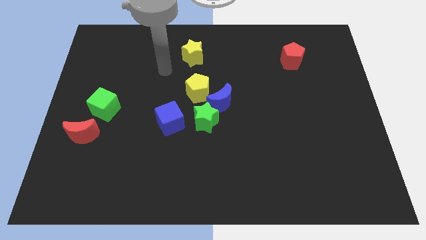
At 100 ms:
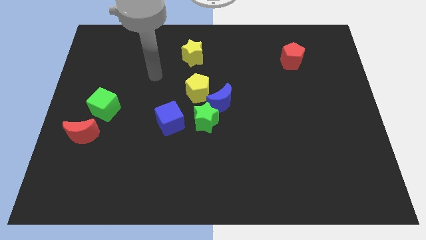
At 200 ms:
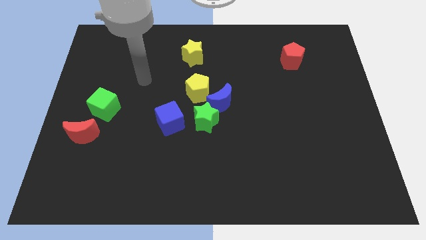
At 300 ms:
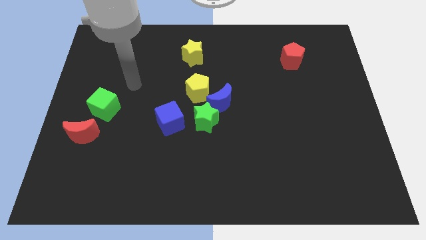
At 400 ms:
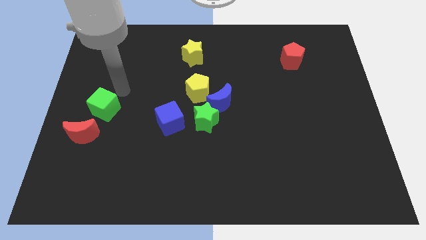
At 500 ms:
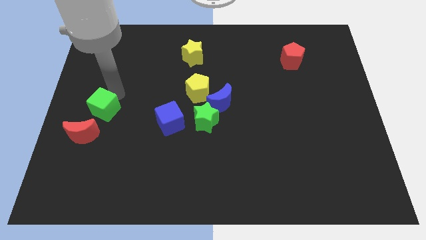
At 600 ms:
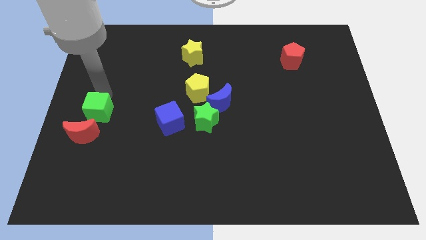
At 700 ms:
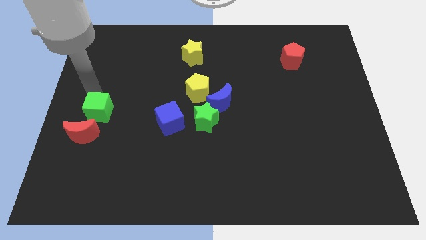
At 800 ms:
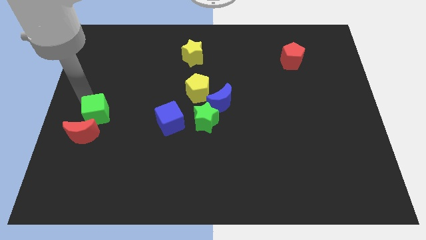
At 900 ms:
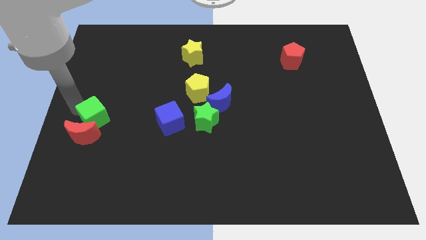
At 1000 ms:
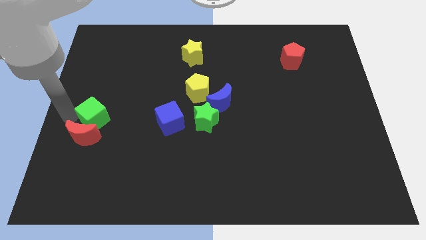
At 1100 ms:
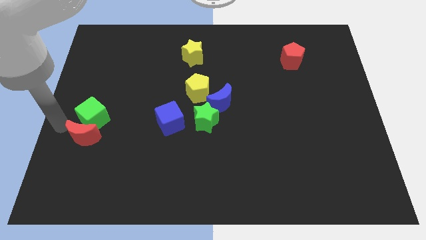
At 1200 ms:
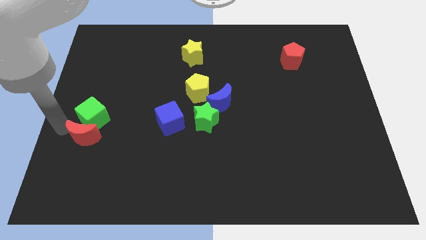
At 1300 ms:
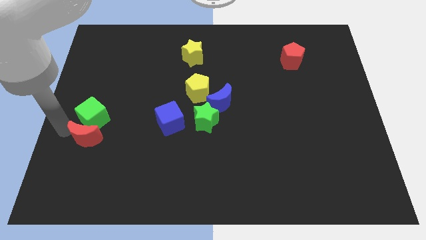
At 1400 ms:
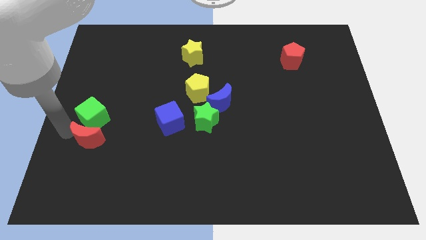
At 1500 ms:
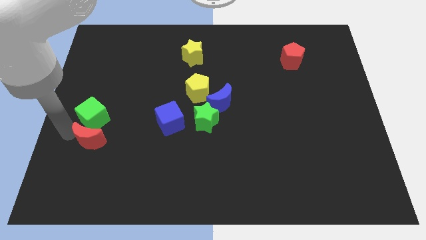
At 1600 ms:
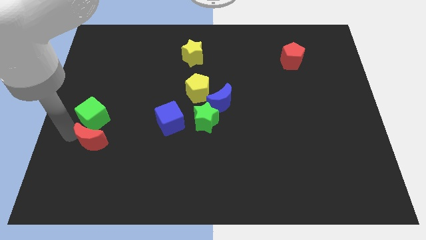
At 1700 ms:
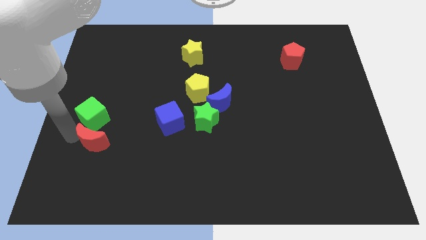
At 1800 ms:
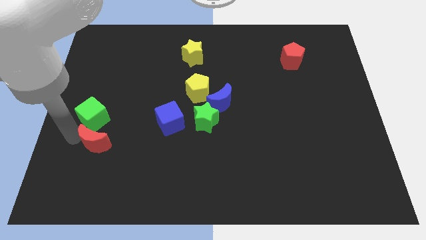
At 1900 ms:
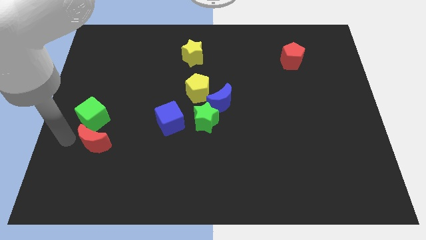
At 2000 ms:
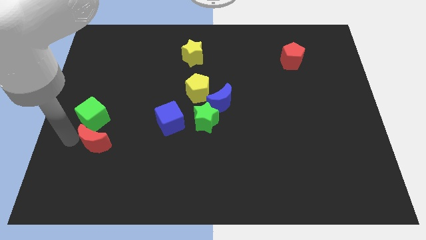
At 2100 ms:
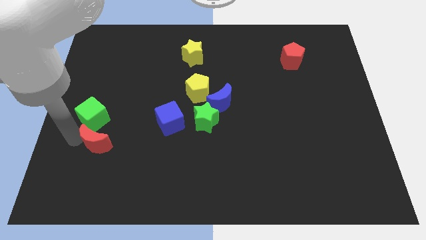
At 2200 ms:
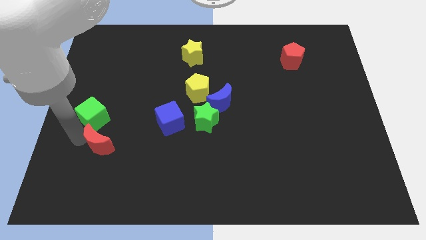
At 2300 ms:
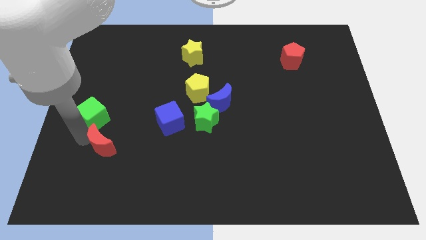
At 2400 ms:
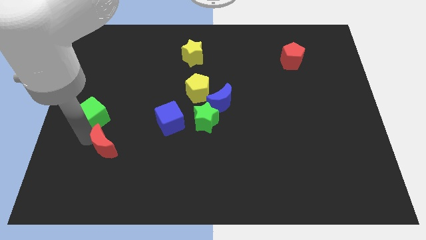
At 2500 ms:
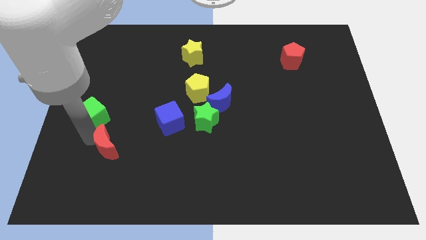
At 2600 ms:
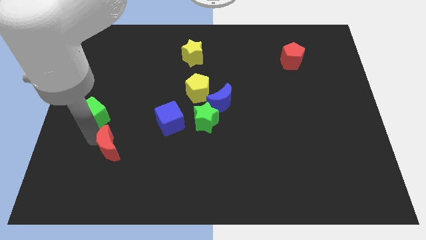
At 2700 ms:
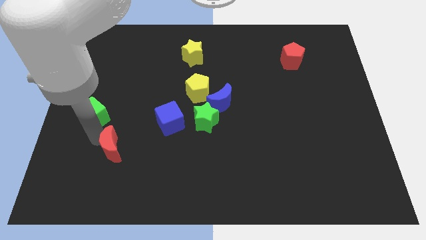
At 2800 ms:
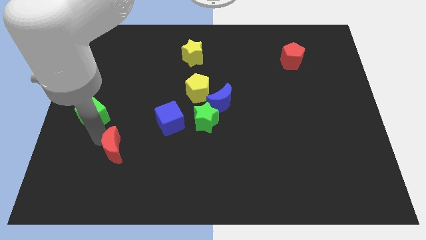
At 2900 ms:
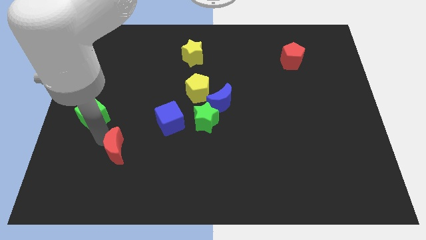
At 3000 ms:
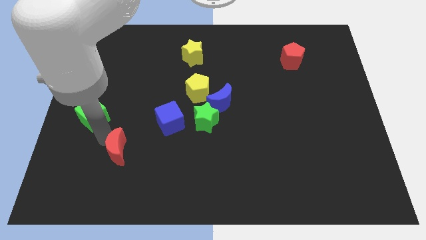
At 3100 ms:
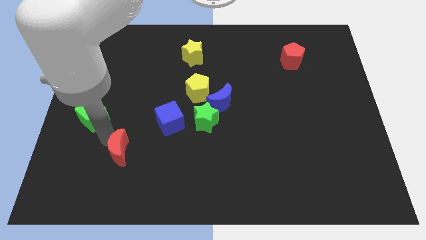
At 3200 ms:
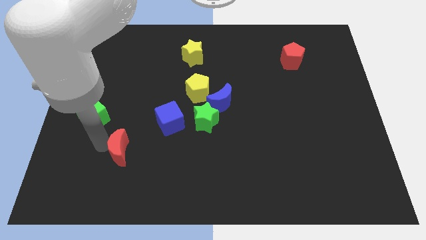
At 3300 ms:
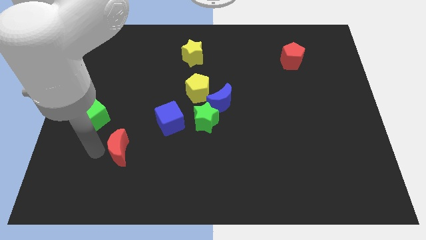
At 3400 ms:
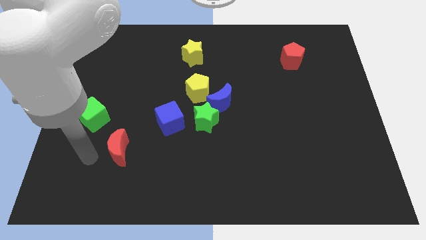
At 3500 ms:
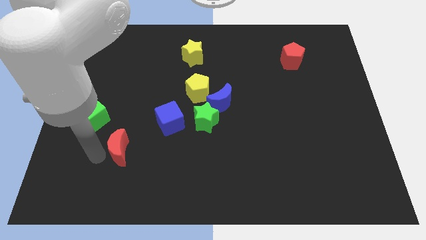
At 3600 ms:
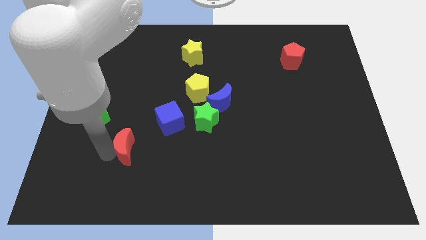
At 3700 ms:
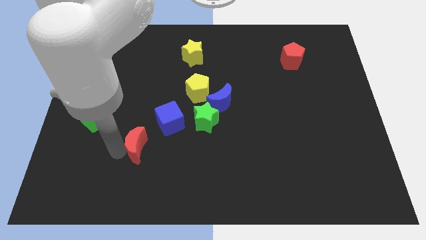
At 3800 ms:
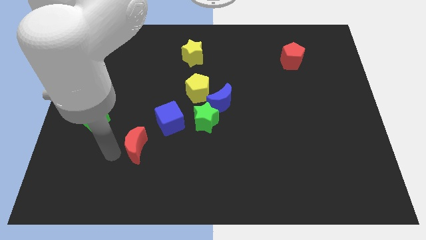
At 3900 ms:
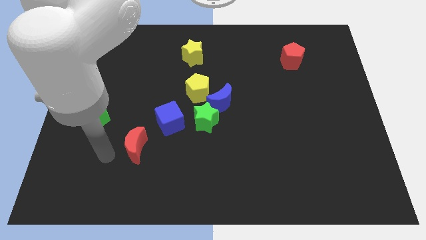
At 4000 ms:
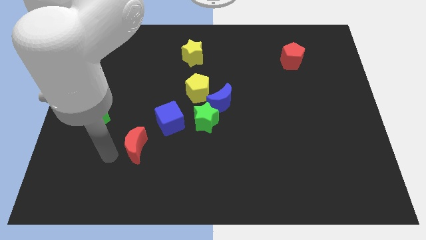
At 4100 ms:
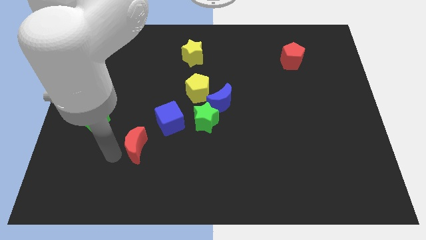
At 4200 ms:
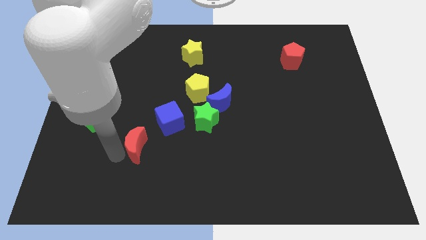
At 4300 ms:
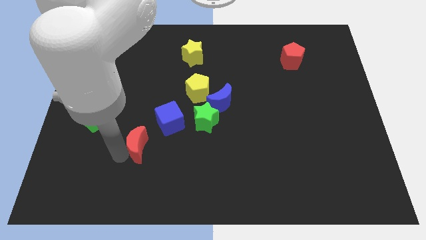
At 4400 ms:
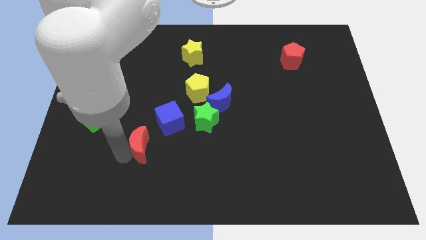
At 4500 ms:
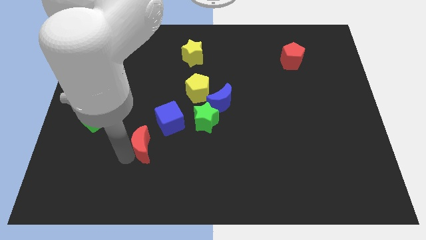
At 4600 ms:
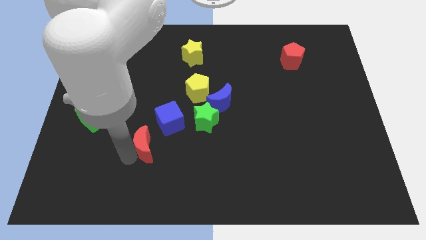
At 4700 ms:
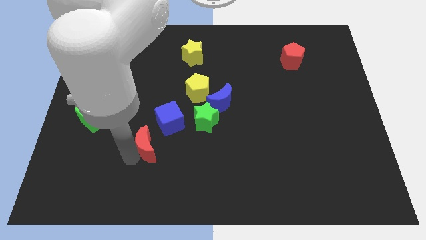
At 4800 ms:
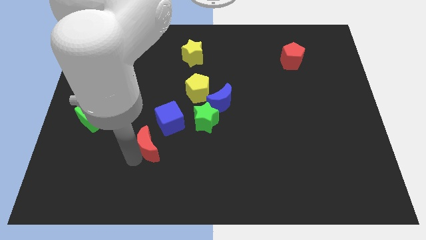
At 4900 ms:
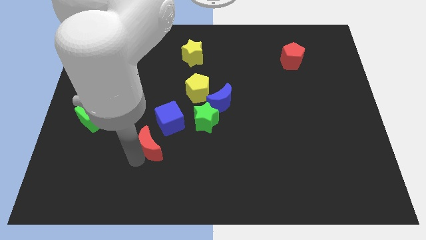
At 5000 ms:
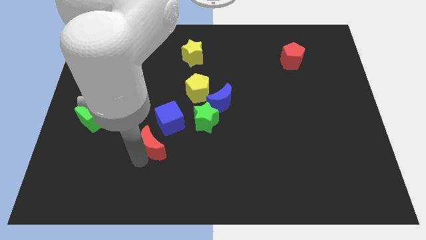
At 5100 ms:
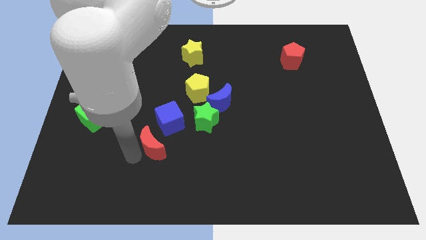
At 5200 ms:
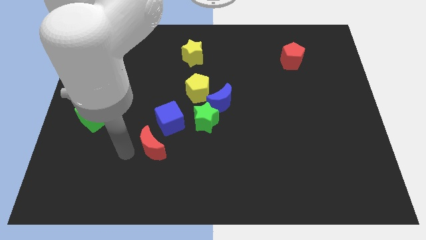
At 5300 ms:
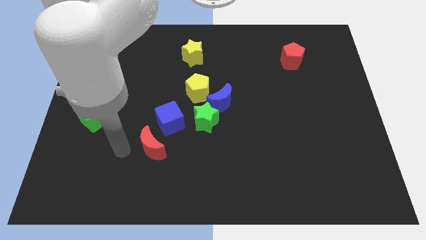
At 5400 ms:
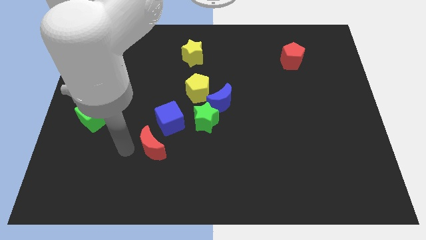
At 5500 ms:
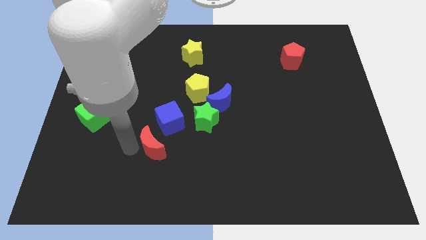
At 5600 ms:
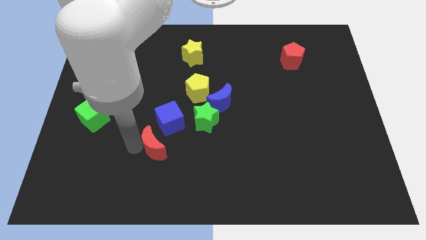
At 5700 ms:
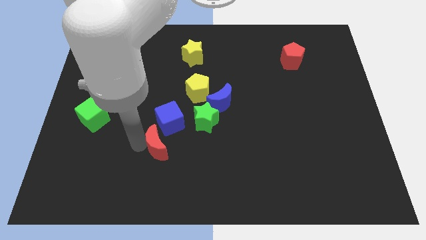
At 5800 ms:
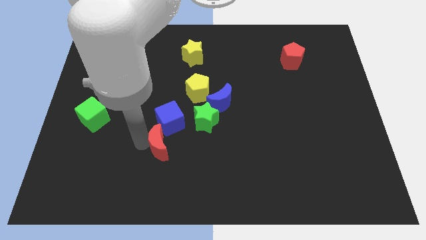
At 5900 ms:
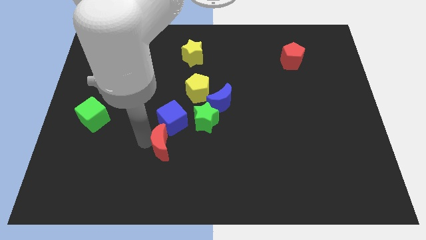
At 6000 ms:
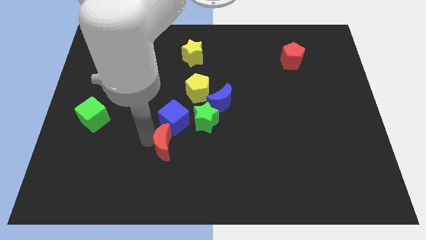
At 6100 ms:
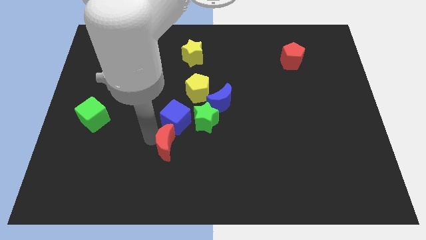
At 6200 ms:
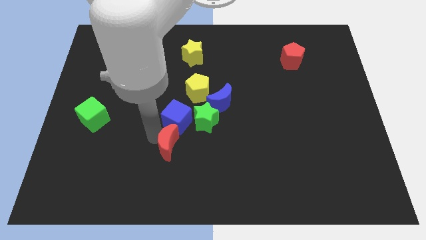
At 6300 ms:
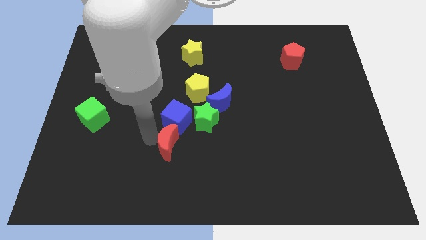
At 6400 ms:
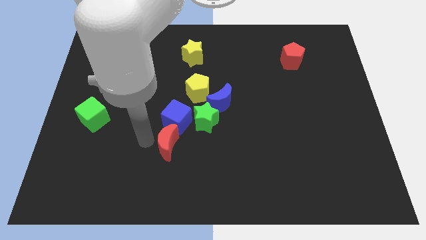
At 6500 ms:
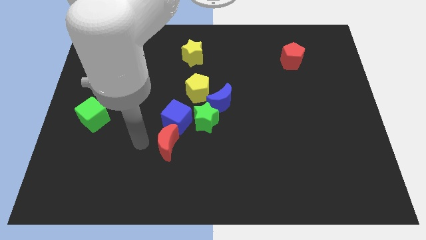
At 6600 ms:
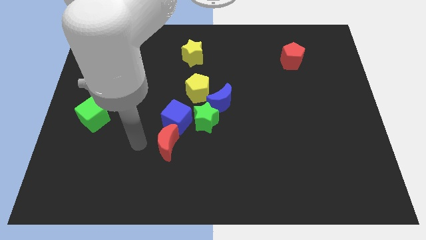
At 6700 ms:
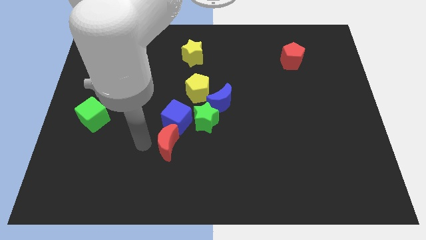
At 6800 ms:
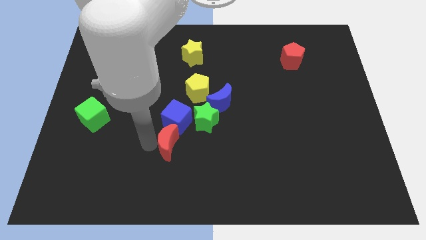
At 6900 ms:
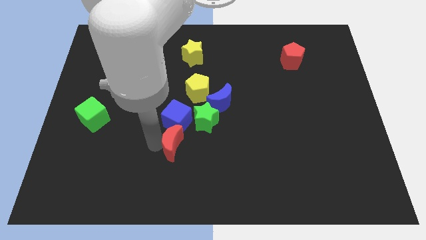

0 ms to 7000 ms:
push the red moon right

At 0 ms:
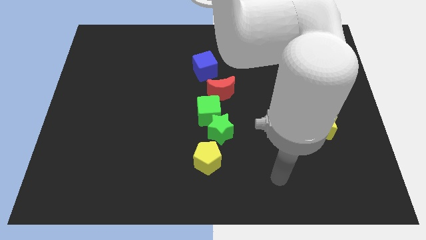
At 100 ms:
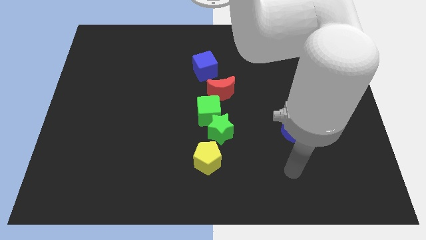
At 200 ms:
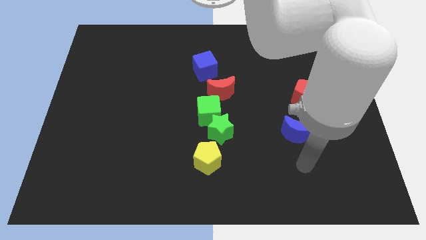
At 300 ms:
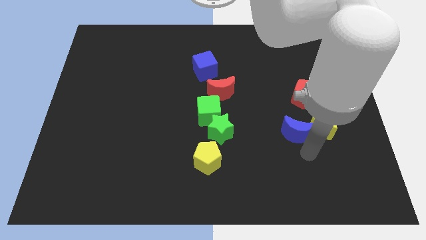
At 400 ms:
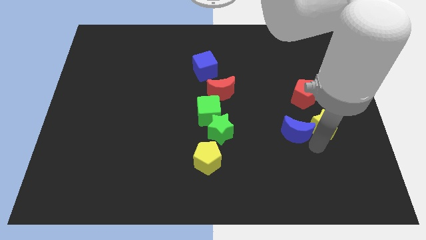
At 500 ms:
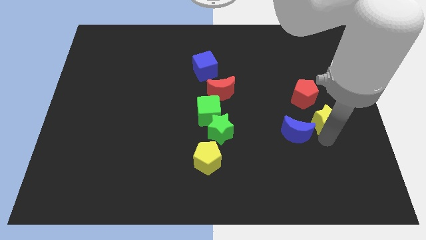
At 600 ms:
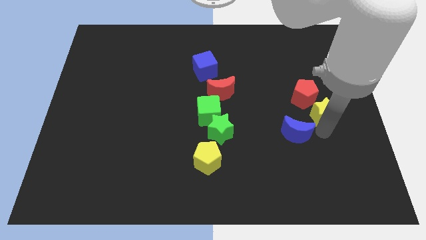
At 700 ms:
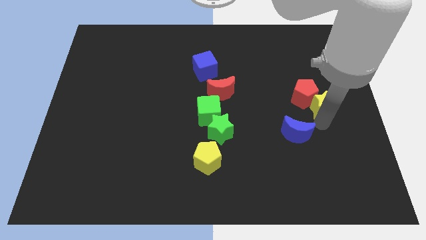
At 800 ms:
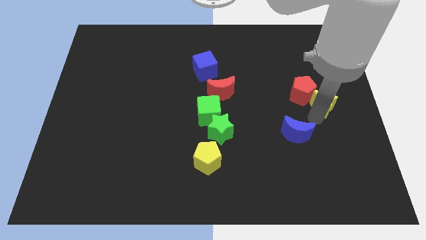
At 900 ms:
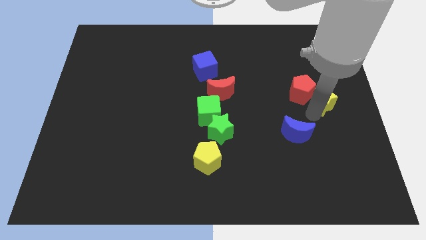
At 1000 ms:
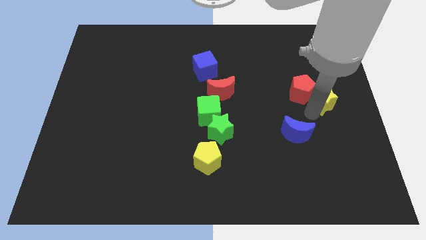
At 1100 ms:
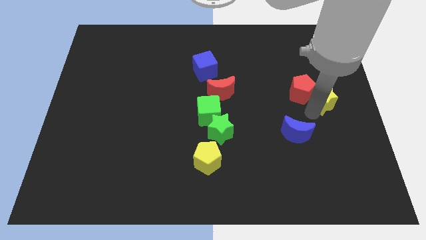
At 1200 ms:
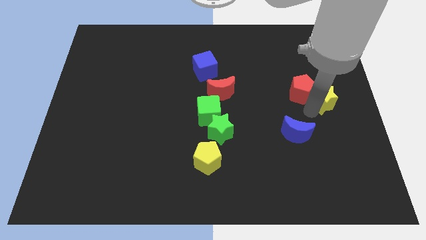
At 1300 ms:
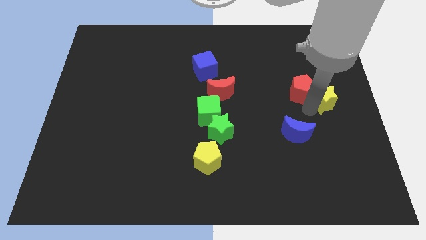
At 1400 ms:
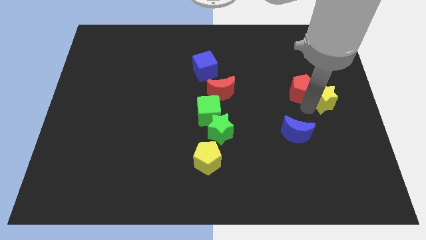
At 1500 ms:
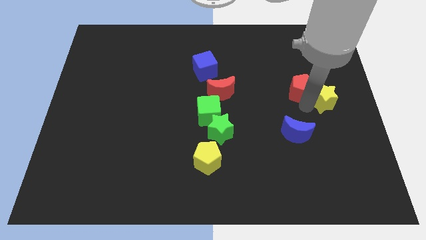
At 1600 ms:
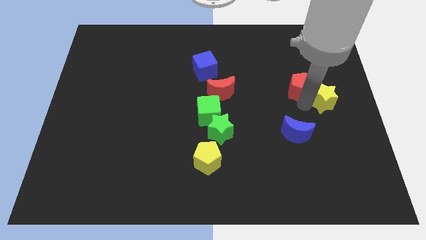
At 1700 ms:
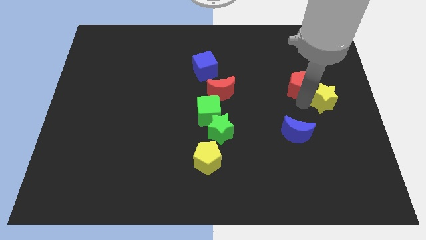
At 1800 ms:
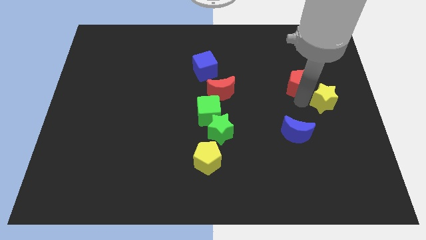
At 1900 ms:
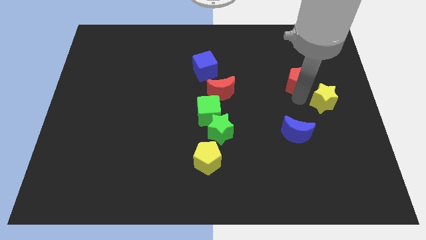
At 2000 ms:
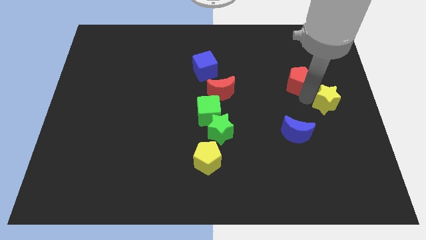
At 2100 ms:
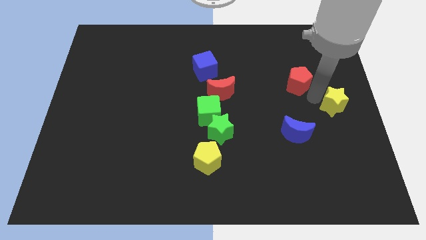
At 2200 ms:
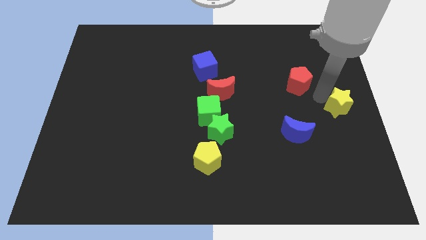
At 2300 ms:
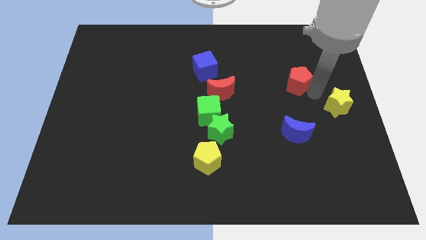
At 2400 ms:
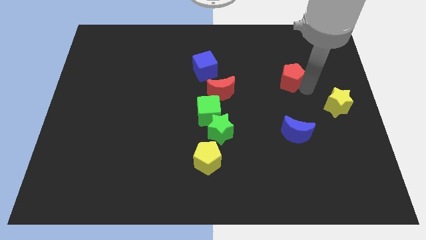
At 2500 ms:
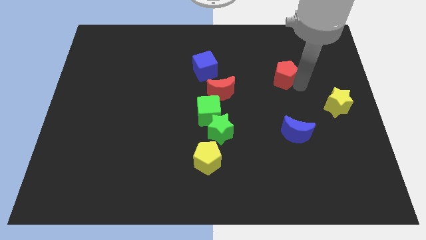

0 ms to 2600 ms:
slide the red pentagon slightly upwards and then left
